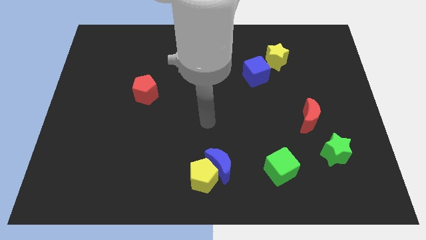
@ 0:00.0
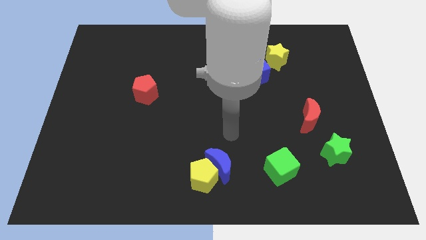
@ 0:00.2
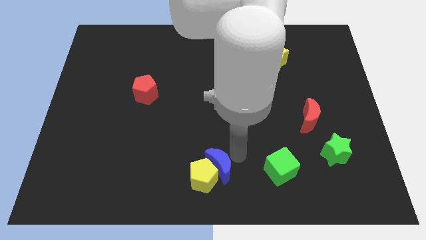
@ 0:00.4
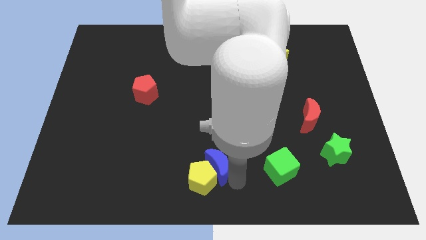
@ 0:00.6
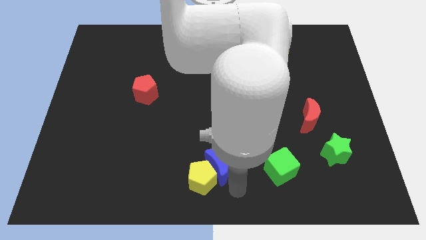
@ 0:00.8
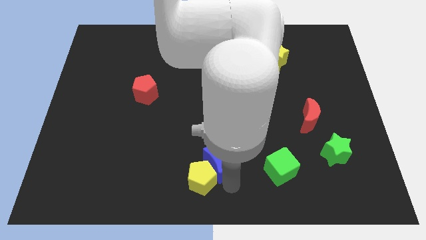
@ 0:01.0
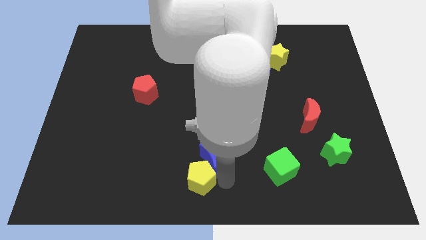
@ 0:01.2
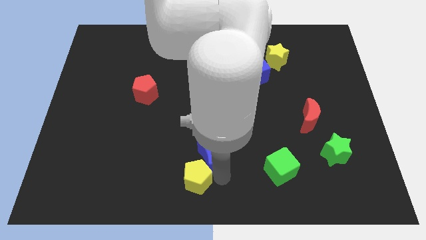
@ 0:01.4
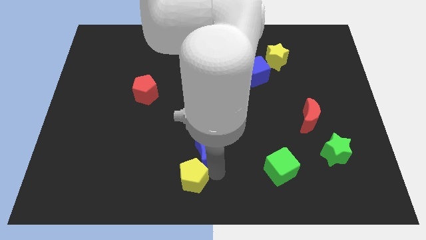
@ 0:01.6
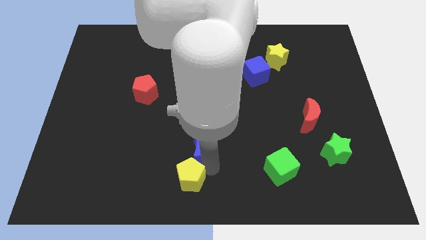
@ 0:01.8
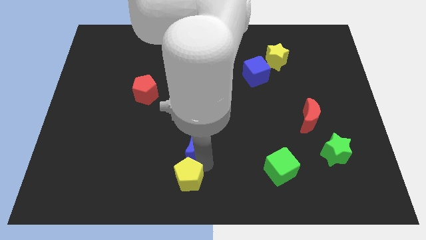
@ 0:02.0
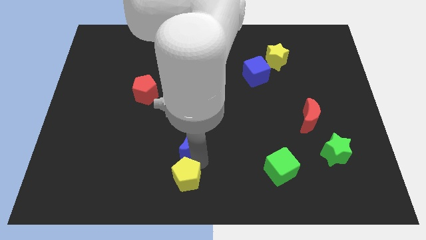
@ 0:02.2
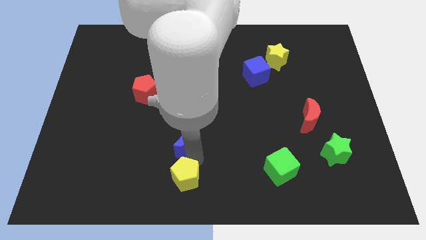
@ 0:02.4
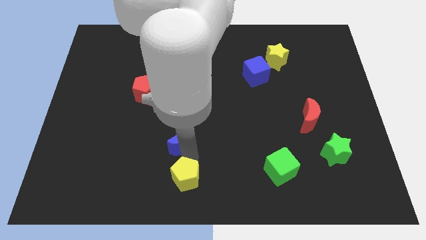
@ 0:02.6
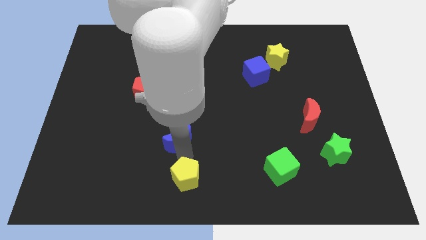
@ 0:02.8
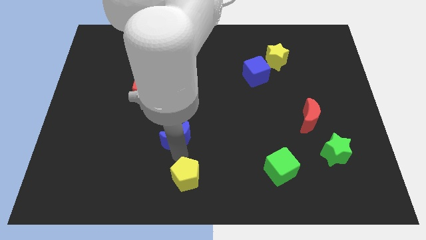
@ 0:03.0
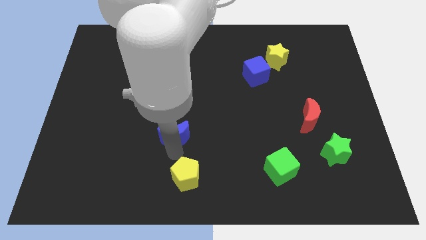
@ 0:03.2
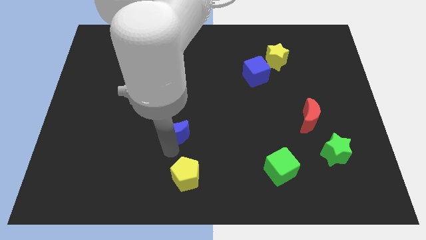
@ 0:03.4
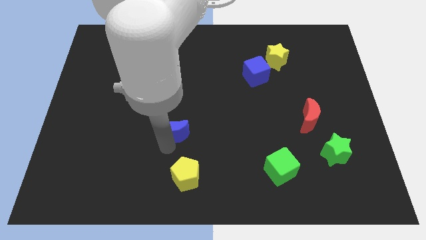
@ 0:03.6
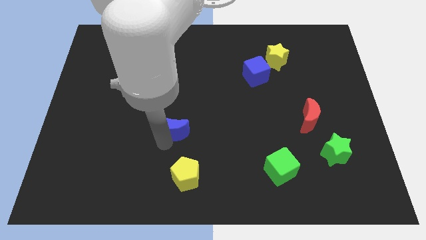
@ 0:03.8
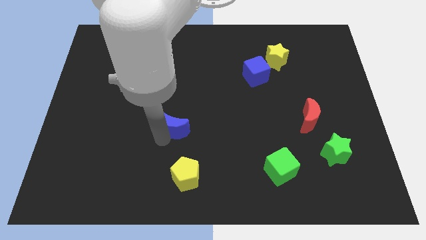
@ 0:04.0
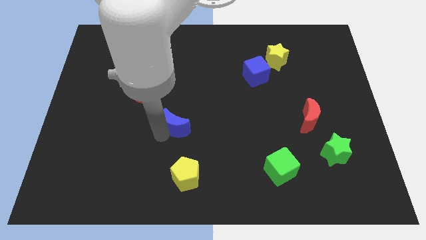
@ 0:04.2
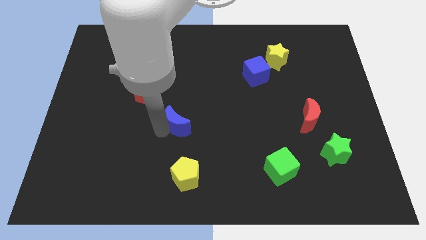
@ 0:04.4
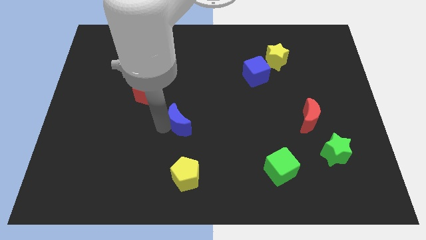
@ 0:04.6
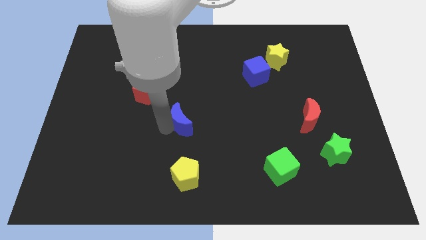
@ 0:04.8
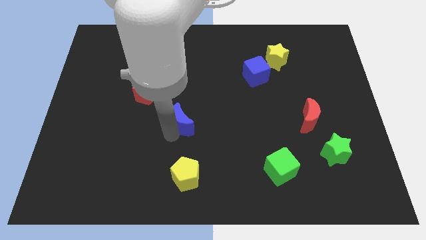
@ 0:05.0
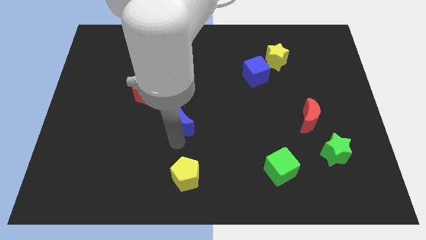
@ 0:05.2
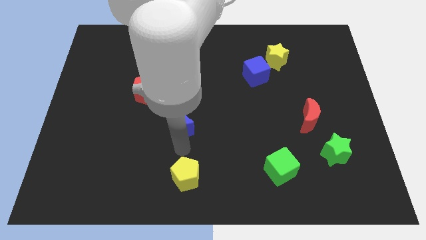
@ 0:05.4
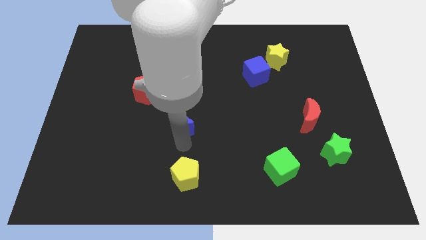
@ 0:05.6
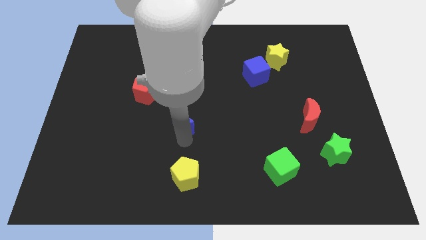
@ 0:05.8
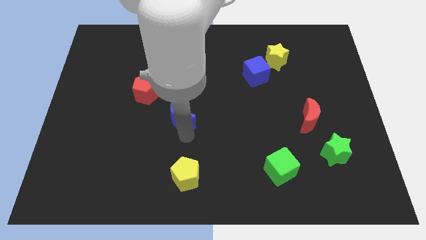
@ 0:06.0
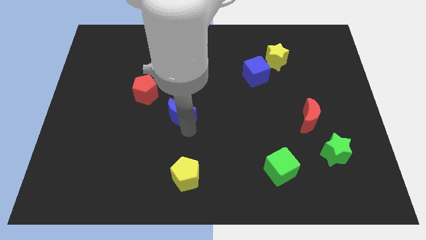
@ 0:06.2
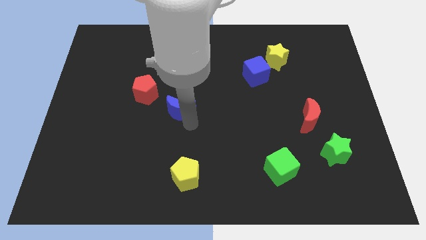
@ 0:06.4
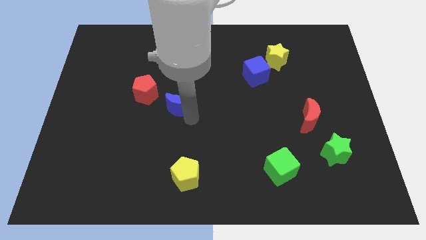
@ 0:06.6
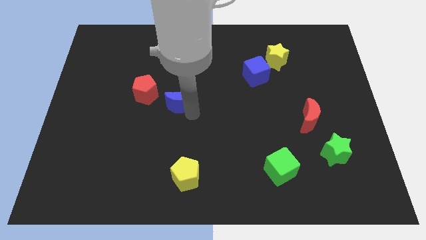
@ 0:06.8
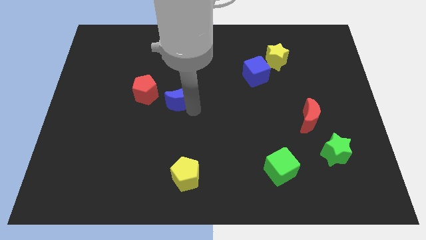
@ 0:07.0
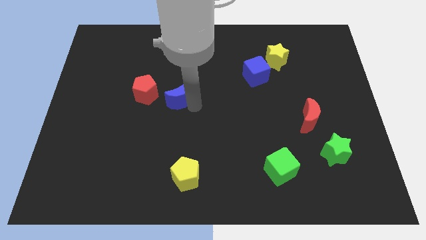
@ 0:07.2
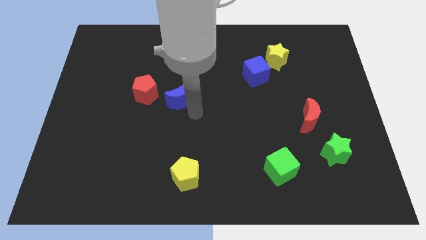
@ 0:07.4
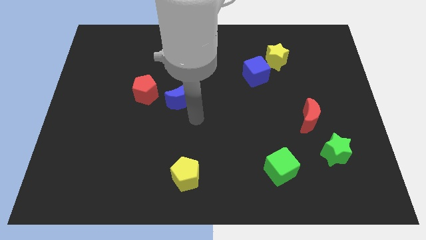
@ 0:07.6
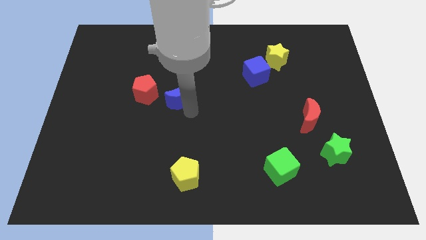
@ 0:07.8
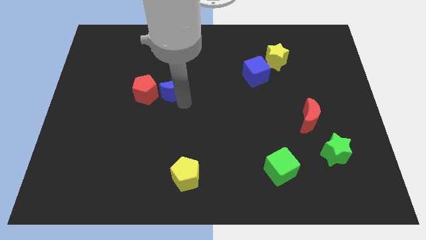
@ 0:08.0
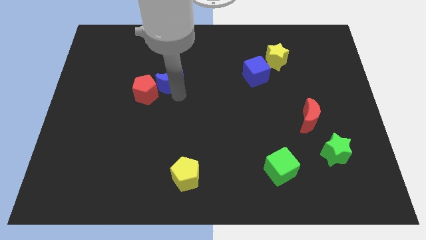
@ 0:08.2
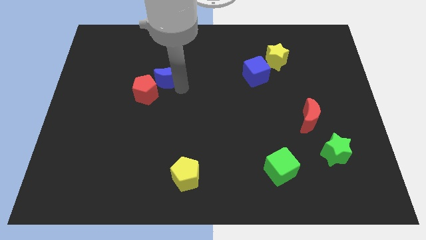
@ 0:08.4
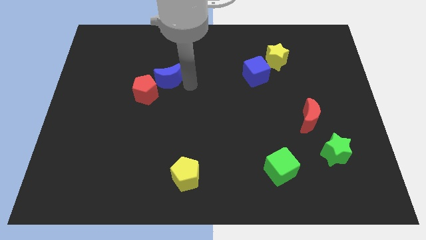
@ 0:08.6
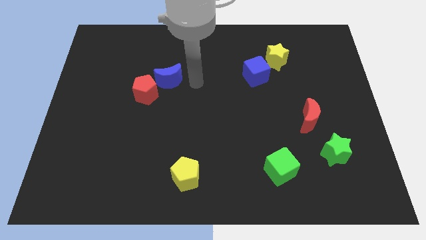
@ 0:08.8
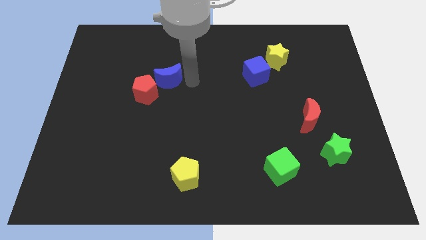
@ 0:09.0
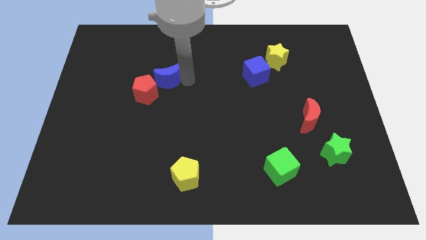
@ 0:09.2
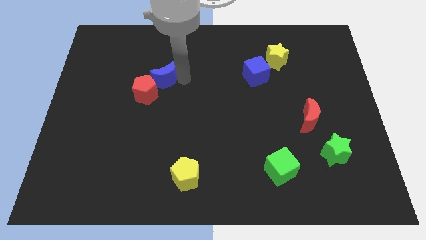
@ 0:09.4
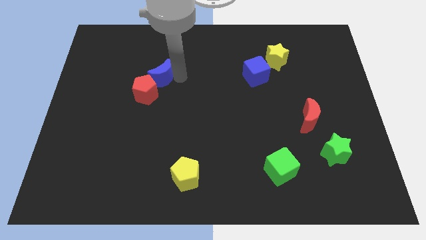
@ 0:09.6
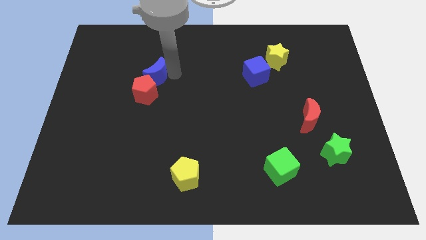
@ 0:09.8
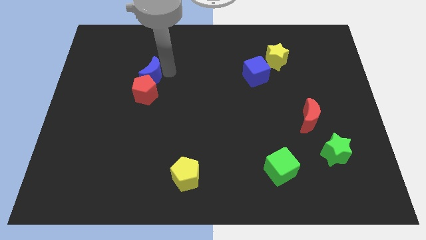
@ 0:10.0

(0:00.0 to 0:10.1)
push the blue moon to the top left side of the red pentagon

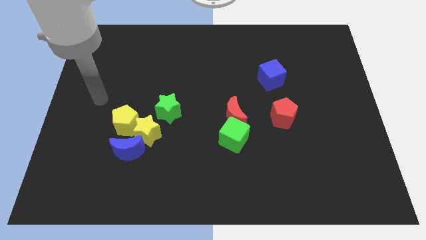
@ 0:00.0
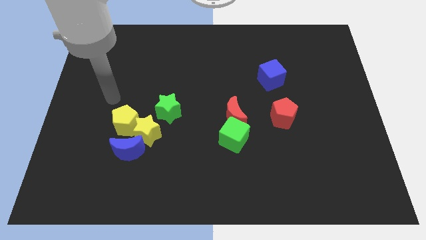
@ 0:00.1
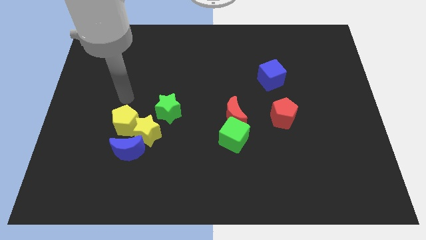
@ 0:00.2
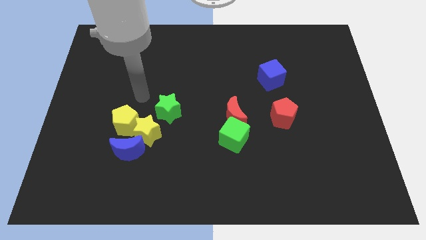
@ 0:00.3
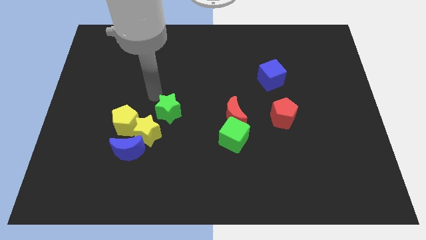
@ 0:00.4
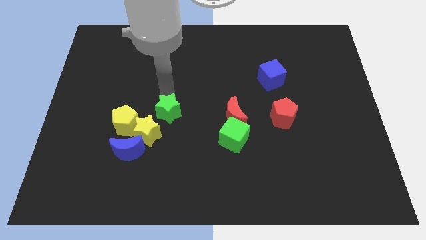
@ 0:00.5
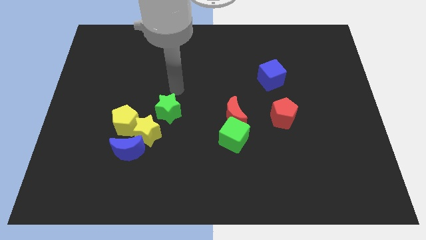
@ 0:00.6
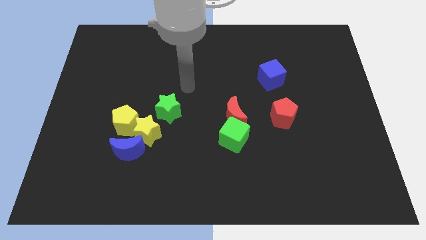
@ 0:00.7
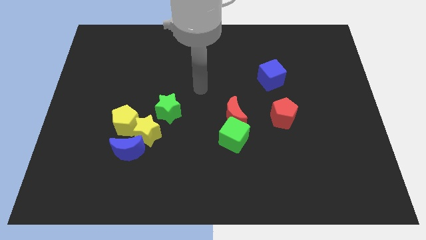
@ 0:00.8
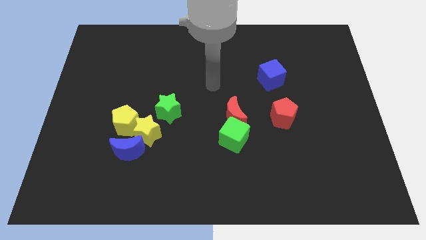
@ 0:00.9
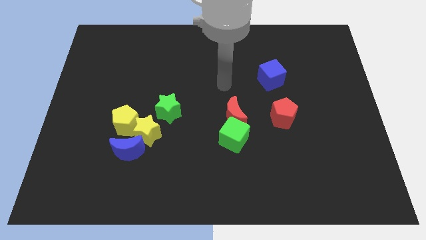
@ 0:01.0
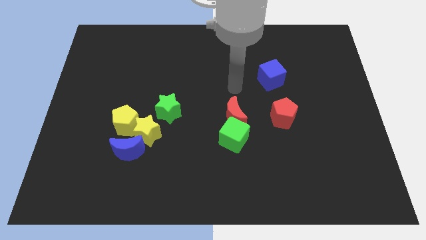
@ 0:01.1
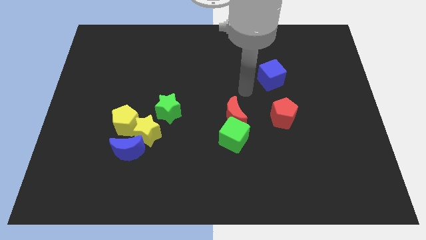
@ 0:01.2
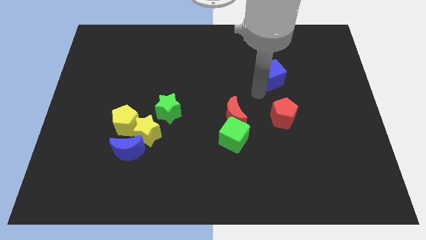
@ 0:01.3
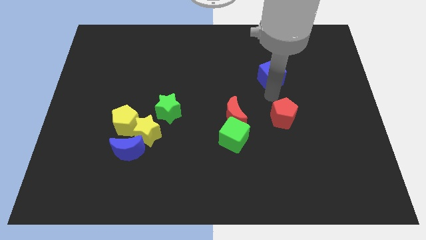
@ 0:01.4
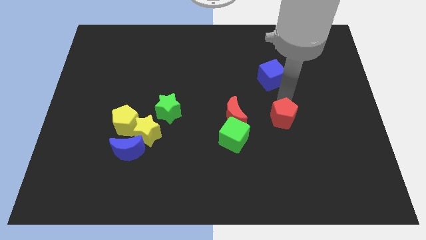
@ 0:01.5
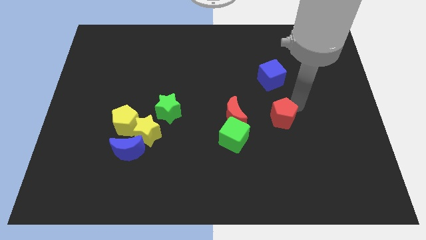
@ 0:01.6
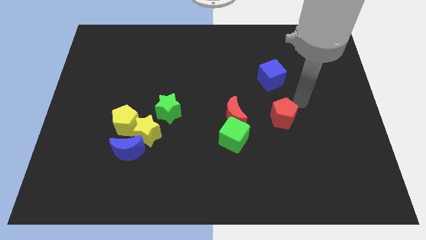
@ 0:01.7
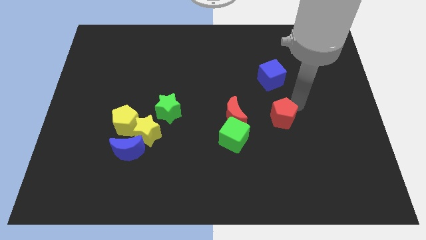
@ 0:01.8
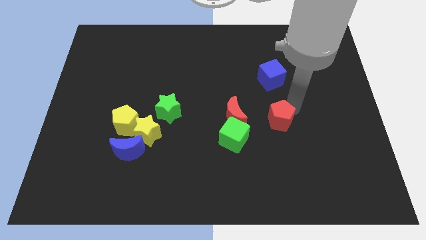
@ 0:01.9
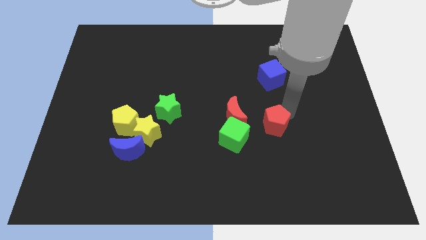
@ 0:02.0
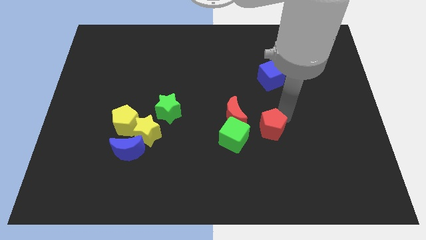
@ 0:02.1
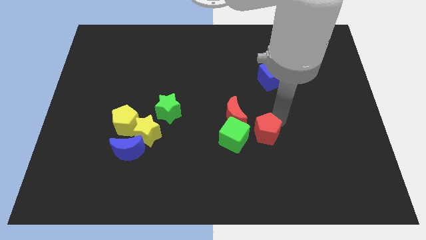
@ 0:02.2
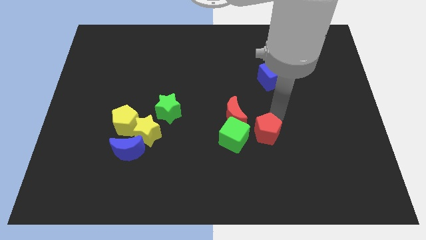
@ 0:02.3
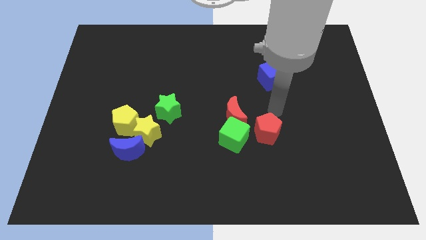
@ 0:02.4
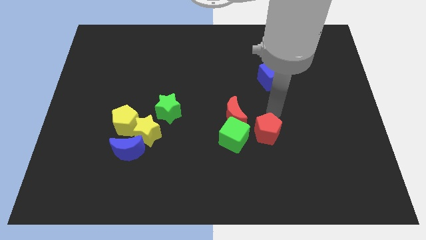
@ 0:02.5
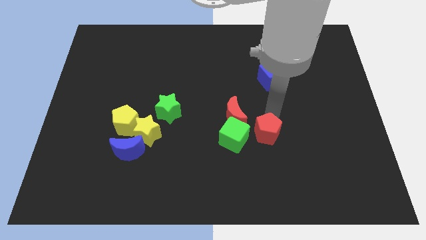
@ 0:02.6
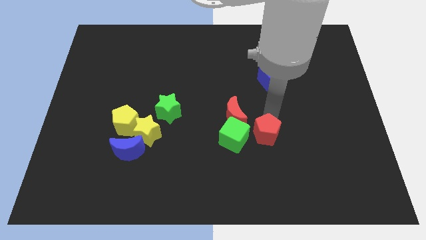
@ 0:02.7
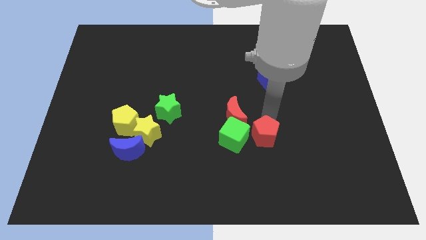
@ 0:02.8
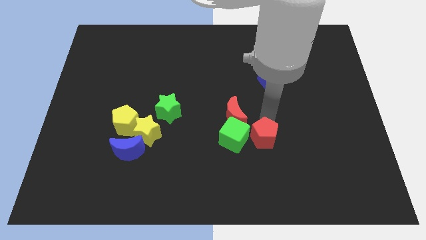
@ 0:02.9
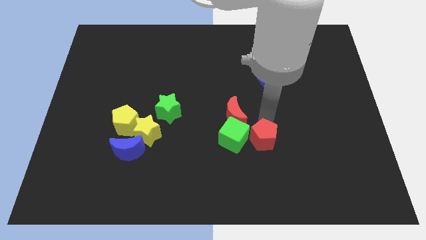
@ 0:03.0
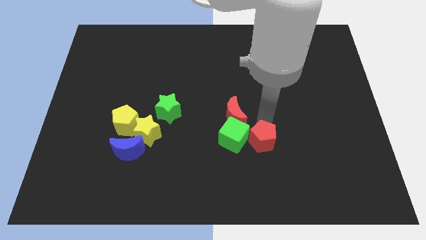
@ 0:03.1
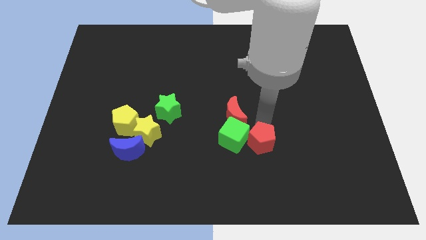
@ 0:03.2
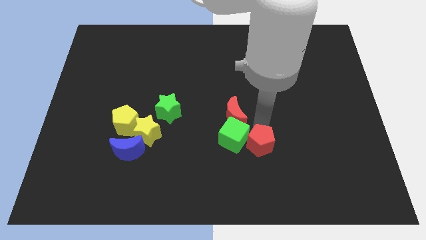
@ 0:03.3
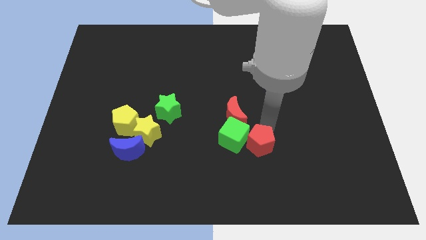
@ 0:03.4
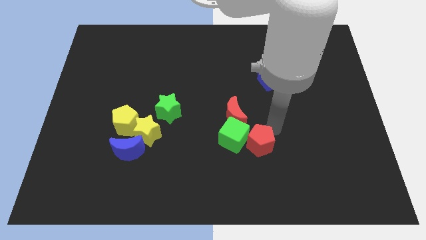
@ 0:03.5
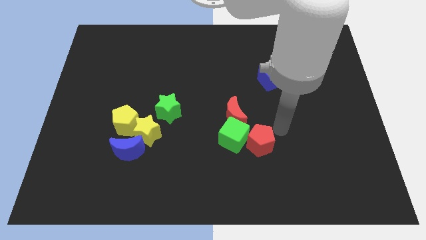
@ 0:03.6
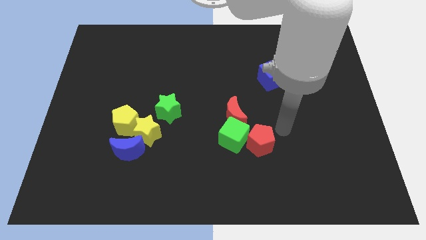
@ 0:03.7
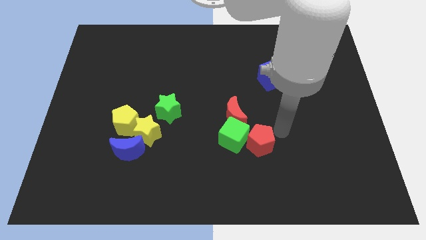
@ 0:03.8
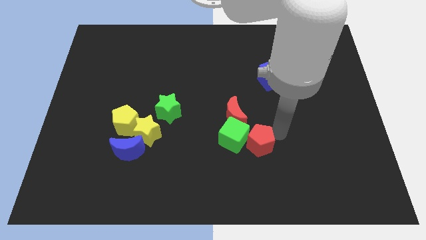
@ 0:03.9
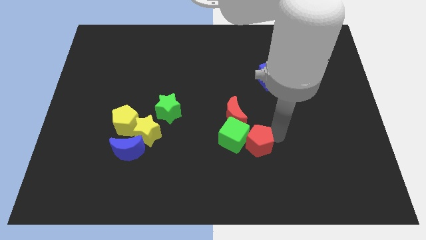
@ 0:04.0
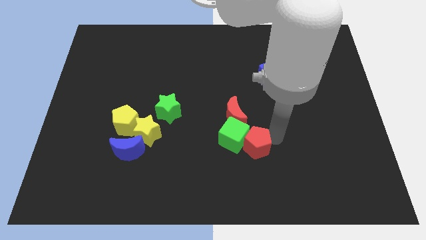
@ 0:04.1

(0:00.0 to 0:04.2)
slide the red pentagon to the bottom side of the red moon
